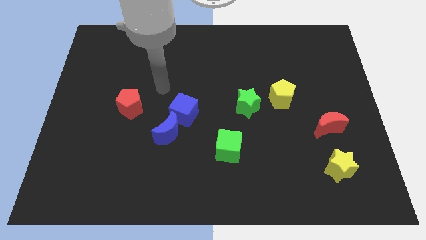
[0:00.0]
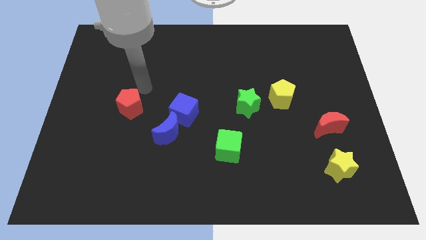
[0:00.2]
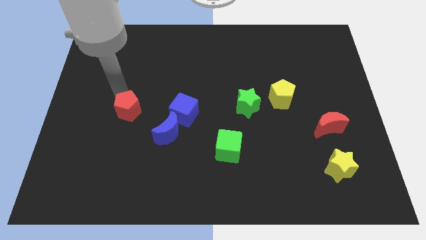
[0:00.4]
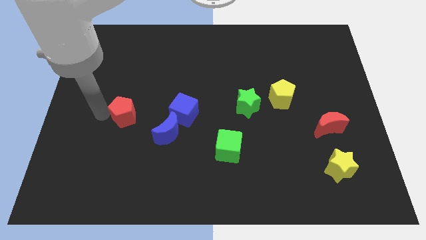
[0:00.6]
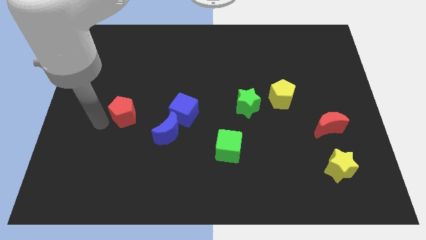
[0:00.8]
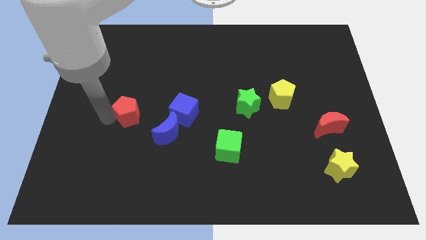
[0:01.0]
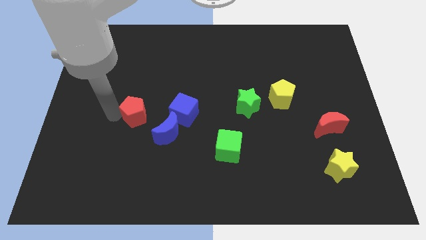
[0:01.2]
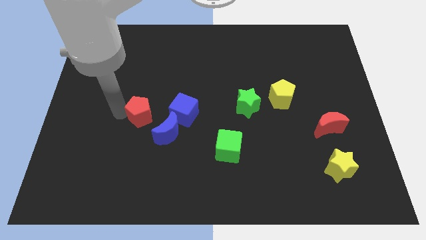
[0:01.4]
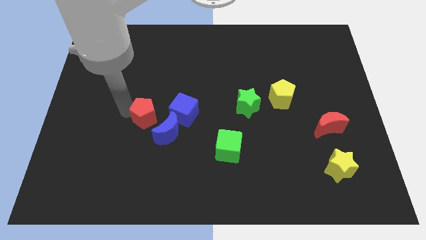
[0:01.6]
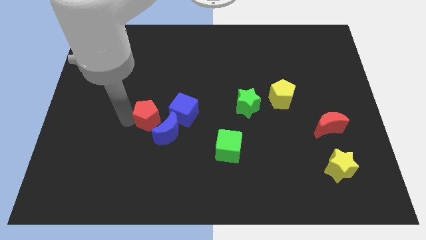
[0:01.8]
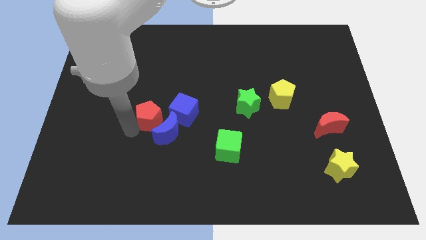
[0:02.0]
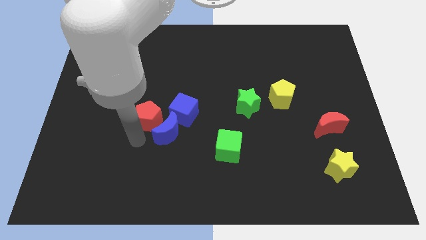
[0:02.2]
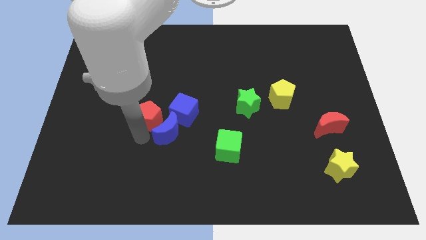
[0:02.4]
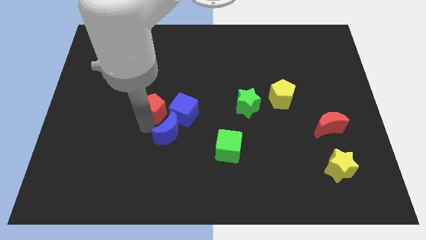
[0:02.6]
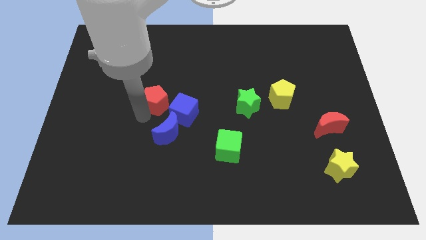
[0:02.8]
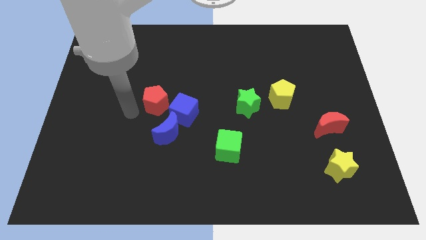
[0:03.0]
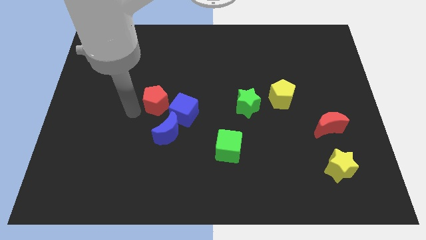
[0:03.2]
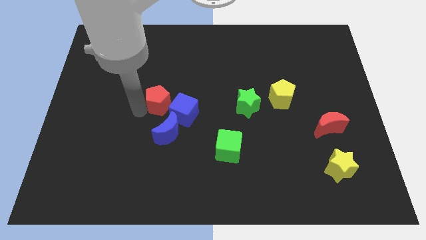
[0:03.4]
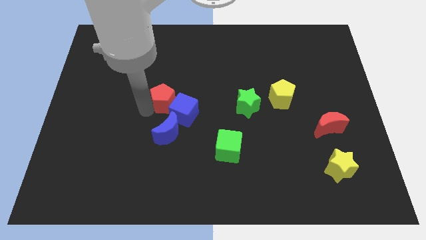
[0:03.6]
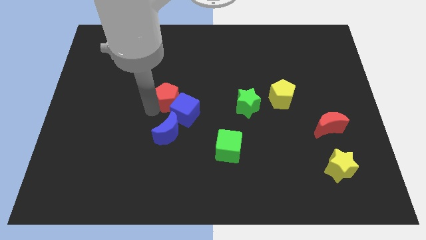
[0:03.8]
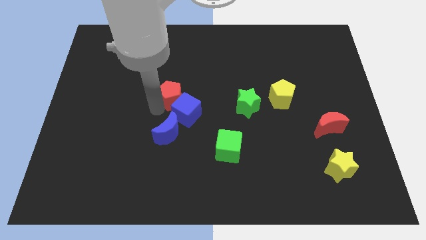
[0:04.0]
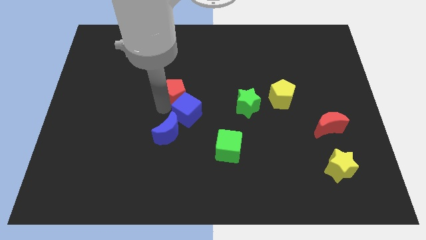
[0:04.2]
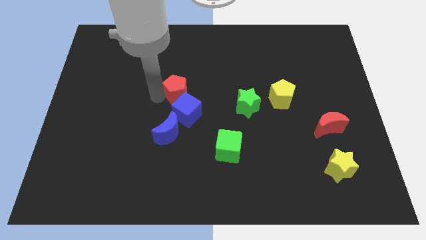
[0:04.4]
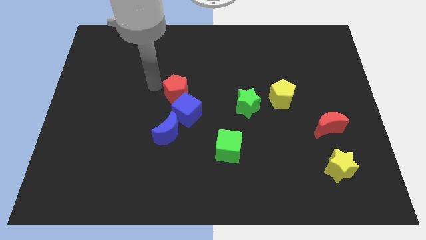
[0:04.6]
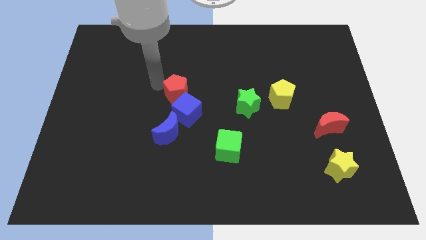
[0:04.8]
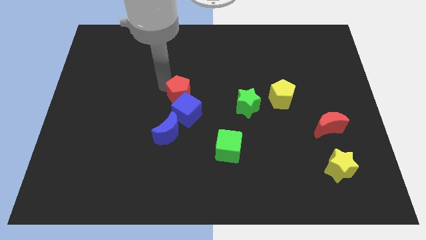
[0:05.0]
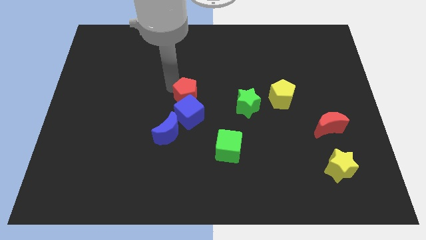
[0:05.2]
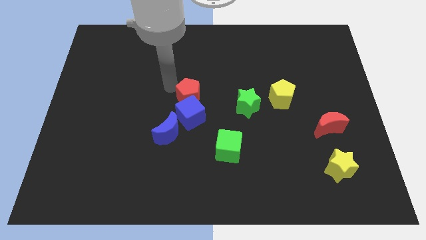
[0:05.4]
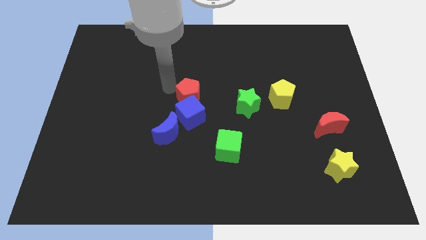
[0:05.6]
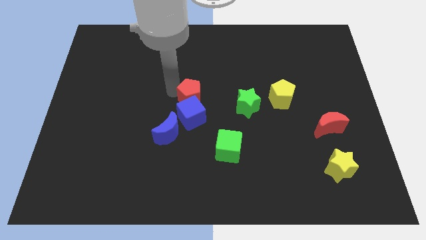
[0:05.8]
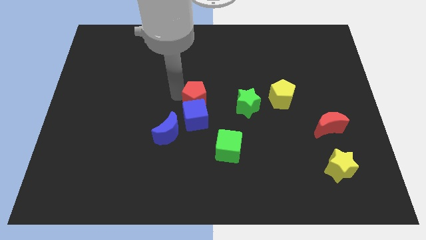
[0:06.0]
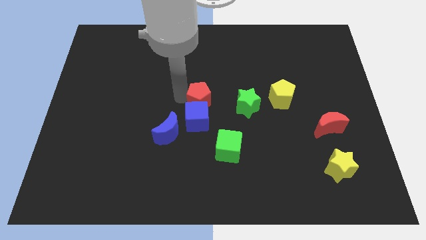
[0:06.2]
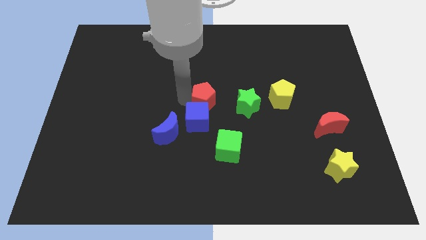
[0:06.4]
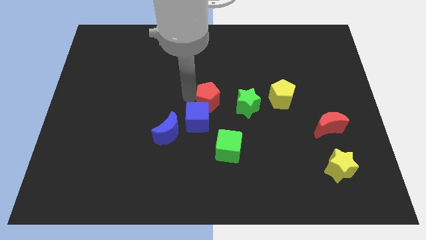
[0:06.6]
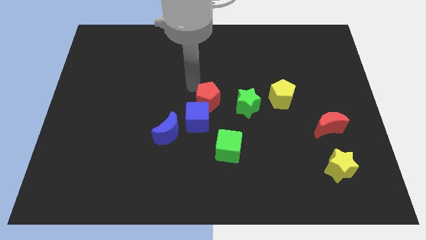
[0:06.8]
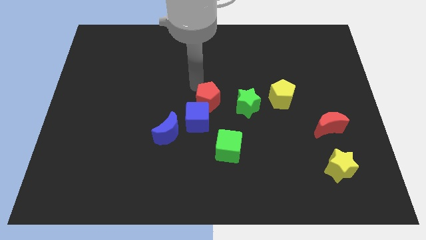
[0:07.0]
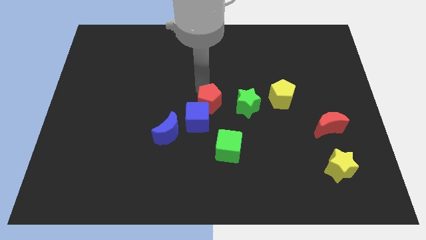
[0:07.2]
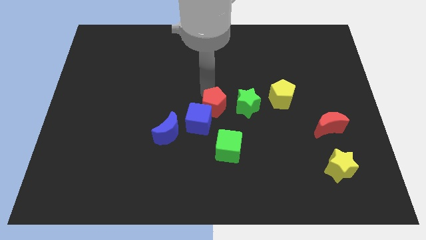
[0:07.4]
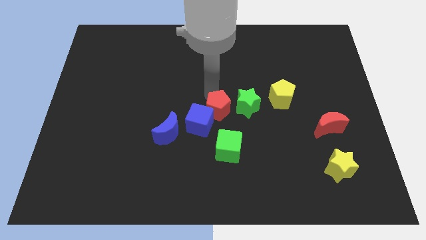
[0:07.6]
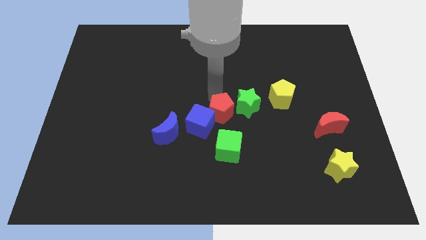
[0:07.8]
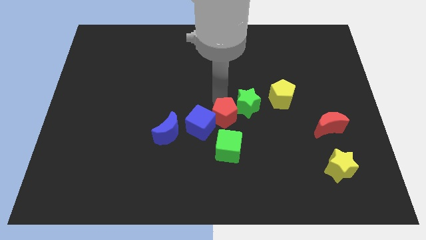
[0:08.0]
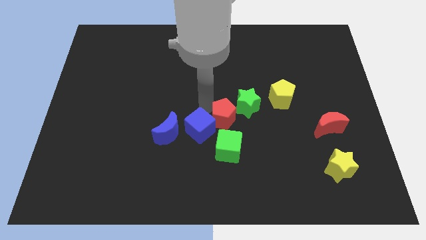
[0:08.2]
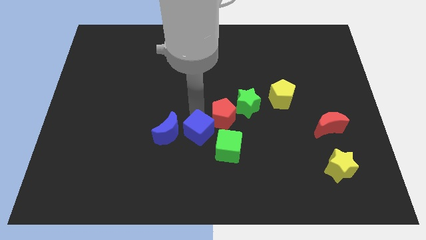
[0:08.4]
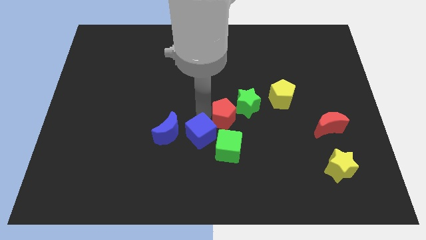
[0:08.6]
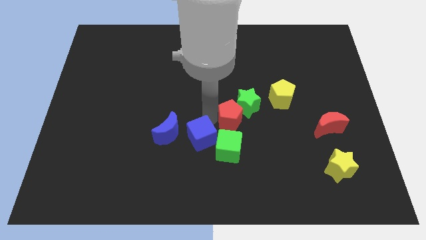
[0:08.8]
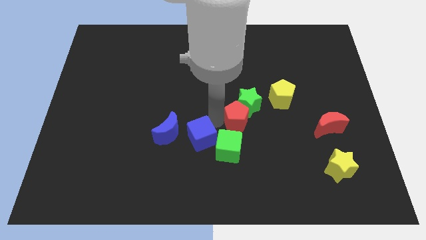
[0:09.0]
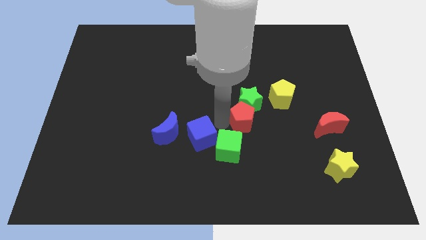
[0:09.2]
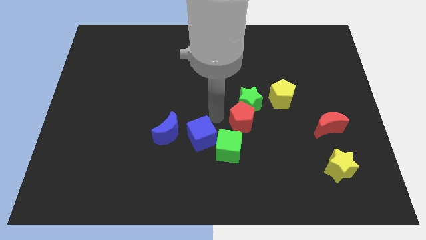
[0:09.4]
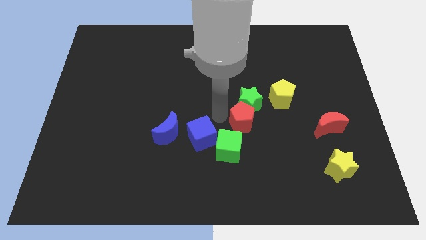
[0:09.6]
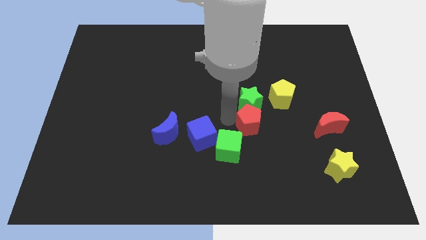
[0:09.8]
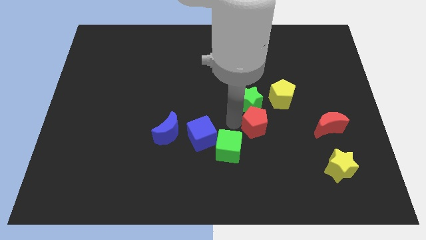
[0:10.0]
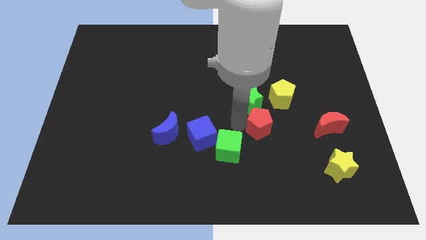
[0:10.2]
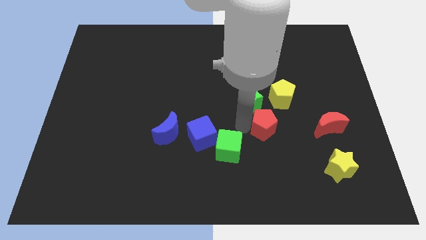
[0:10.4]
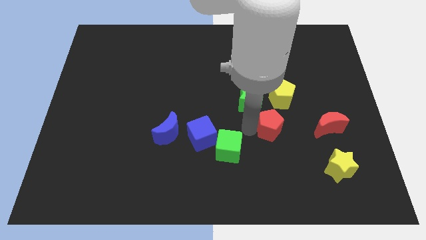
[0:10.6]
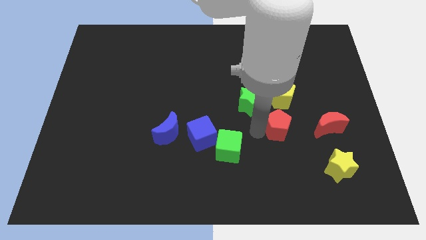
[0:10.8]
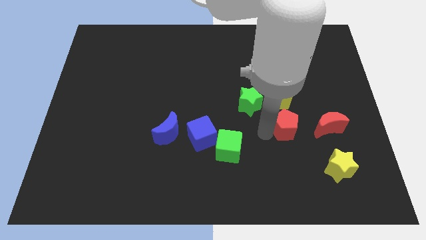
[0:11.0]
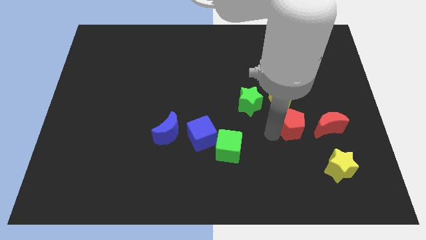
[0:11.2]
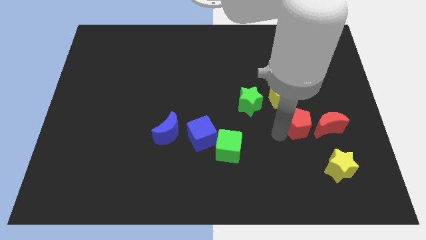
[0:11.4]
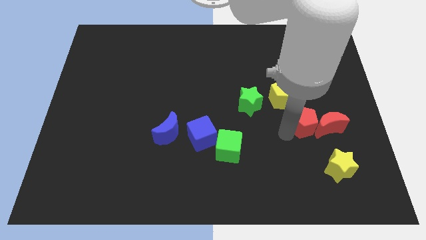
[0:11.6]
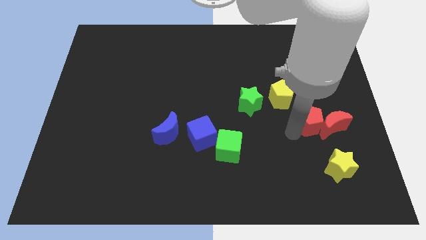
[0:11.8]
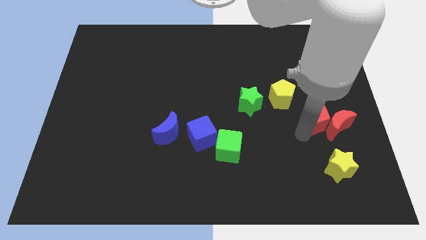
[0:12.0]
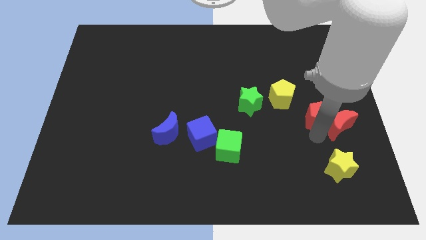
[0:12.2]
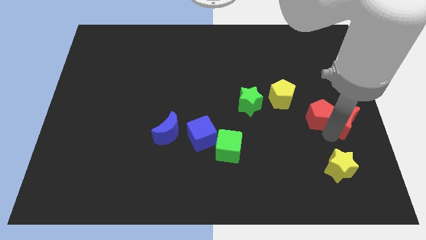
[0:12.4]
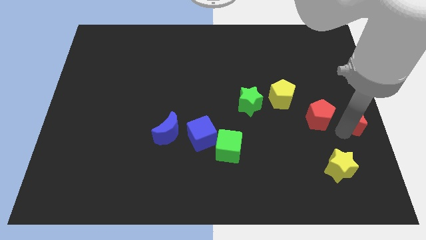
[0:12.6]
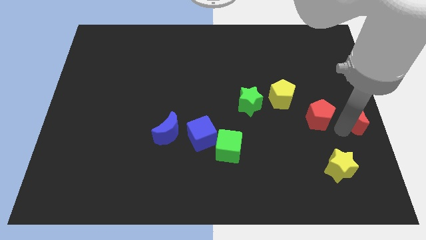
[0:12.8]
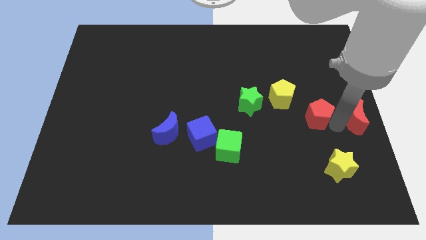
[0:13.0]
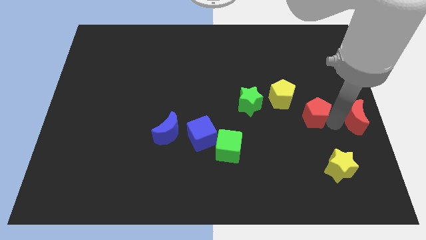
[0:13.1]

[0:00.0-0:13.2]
push the red pentagon to the right of the green star
